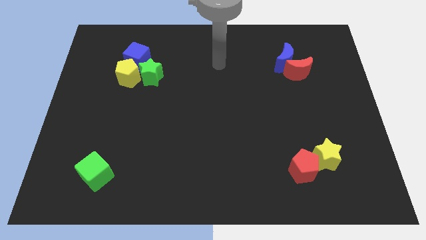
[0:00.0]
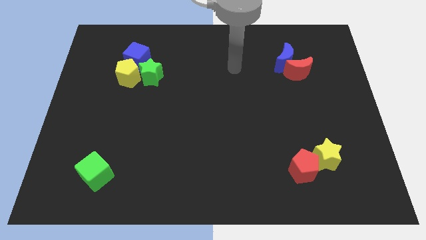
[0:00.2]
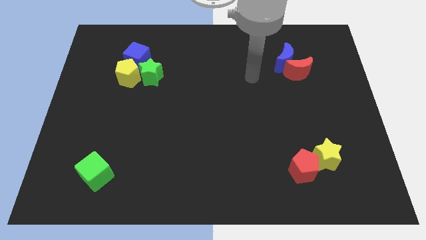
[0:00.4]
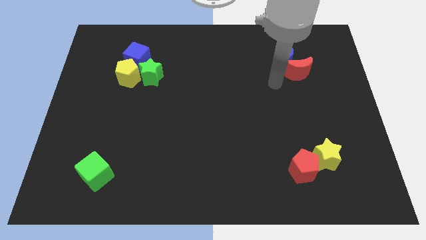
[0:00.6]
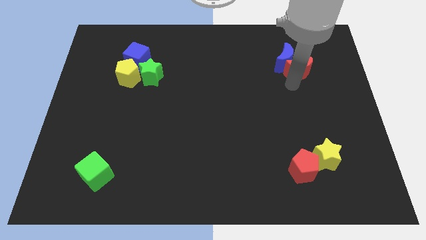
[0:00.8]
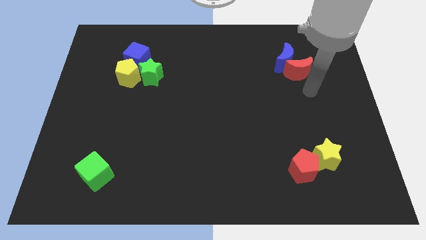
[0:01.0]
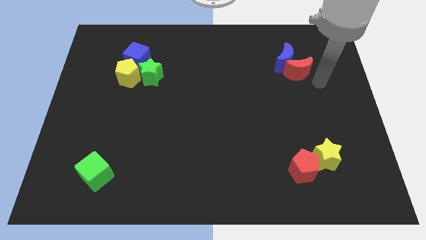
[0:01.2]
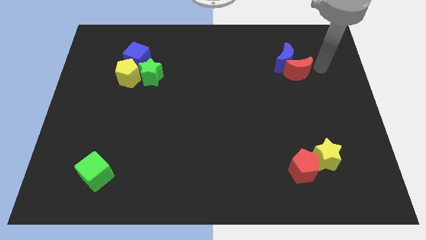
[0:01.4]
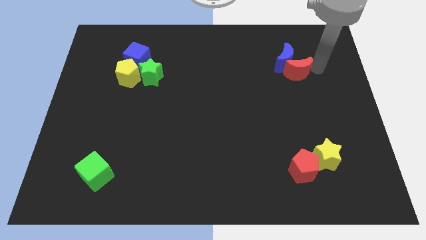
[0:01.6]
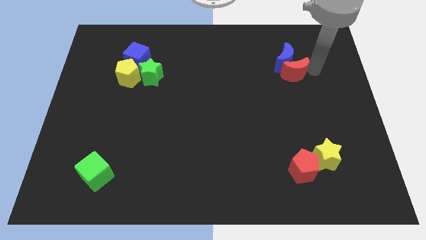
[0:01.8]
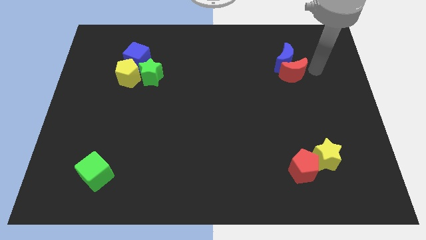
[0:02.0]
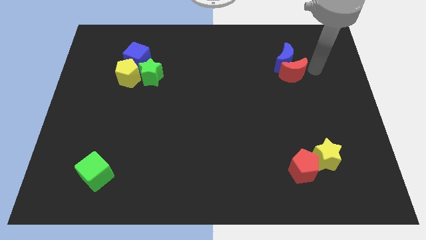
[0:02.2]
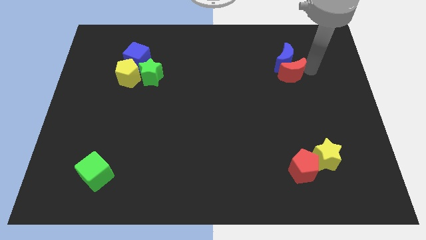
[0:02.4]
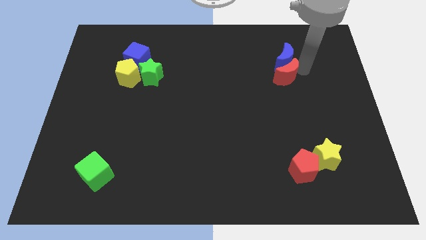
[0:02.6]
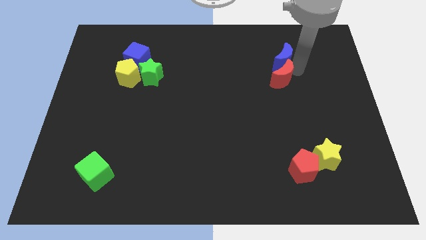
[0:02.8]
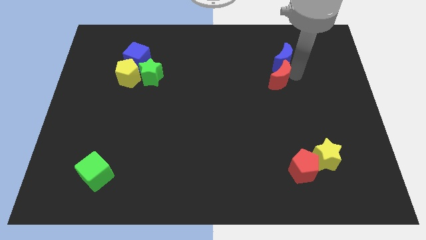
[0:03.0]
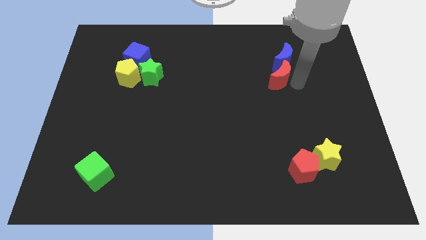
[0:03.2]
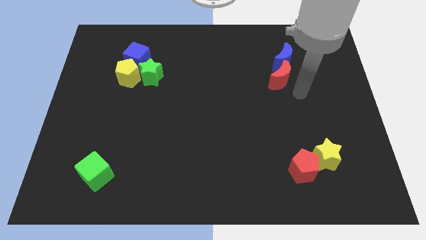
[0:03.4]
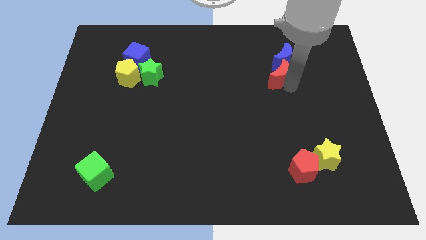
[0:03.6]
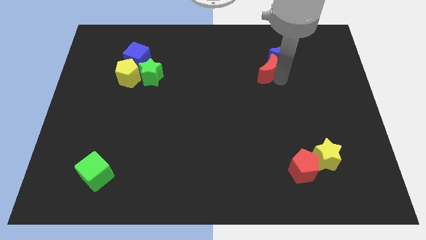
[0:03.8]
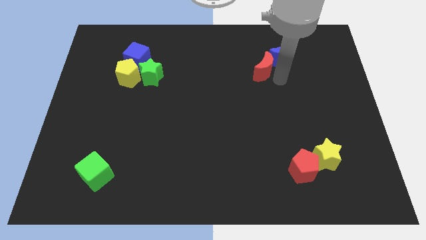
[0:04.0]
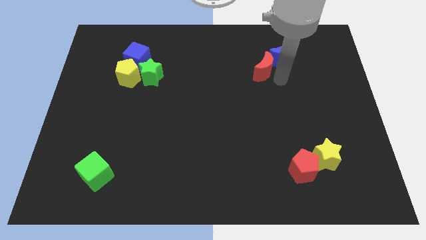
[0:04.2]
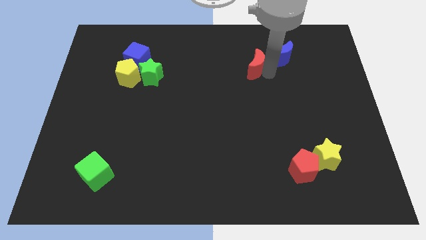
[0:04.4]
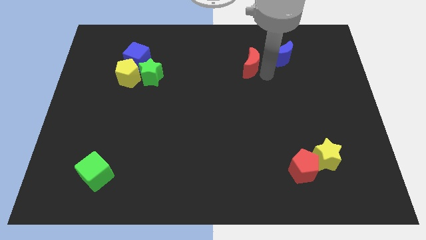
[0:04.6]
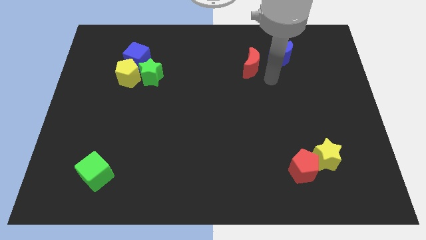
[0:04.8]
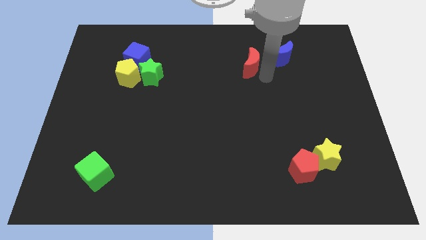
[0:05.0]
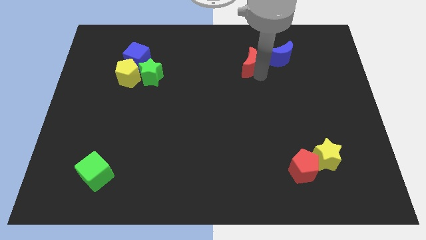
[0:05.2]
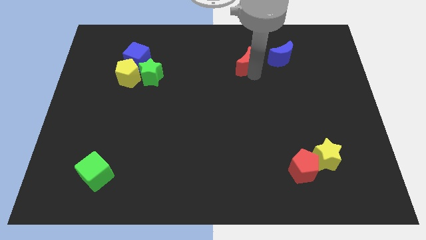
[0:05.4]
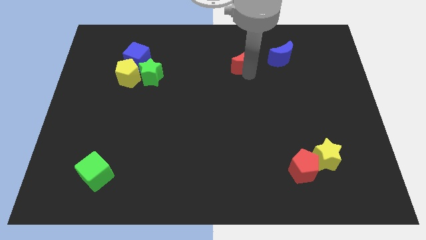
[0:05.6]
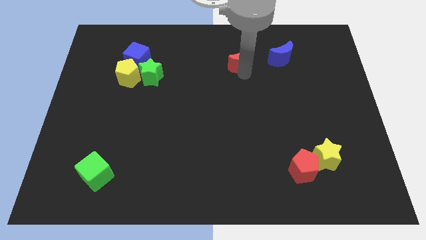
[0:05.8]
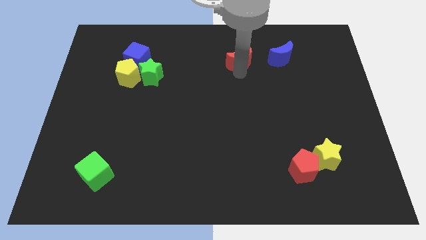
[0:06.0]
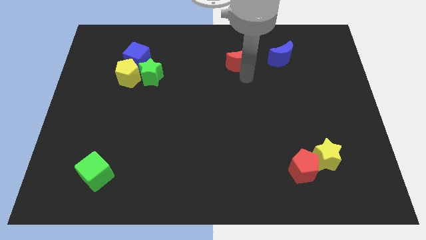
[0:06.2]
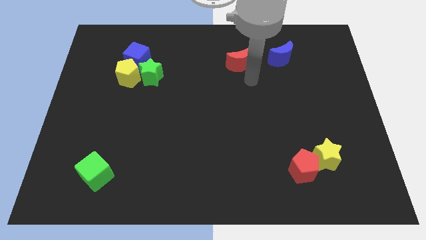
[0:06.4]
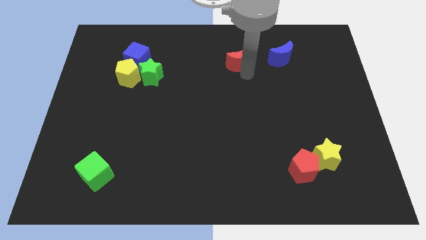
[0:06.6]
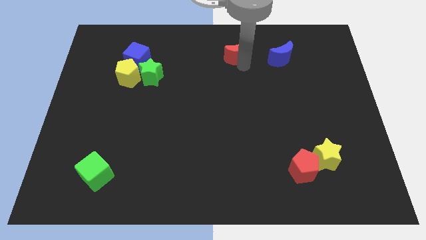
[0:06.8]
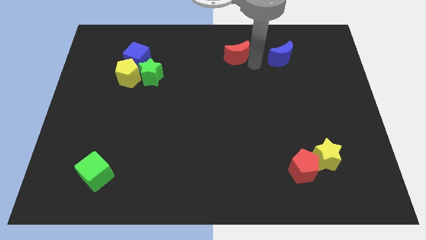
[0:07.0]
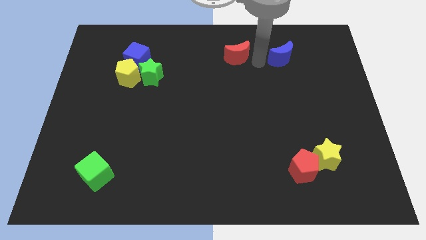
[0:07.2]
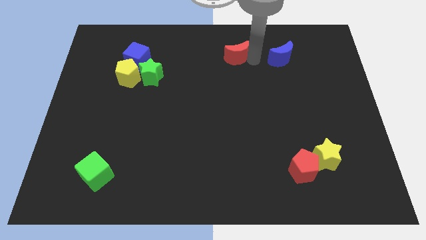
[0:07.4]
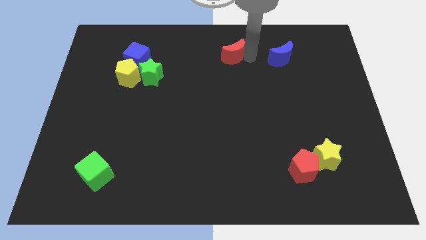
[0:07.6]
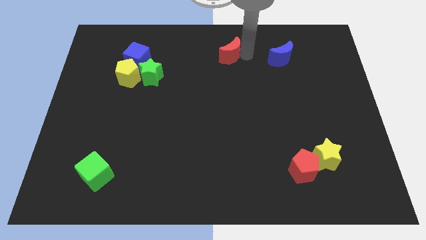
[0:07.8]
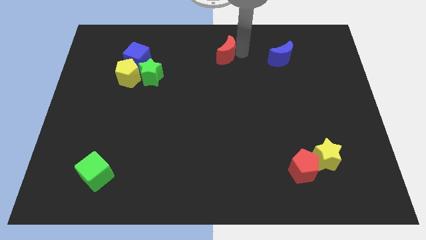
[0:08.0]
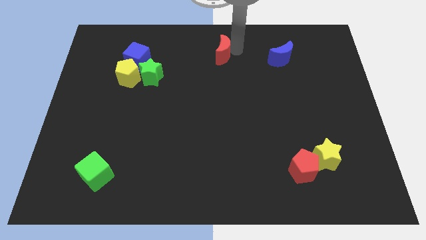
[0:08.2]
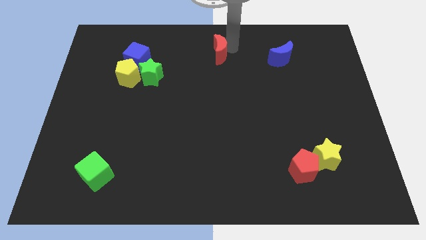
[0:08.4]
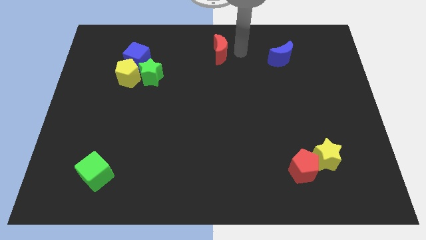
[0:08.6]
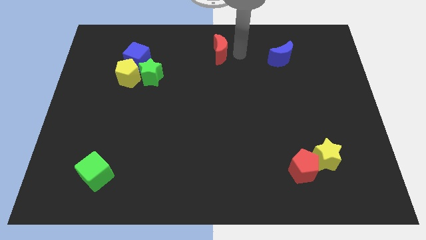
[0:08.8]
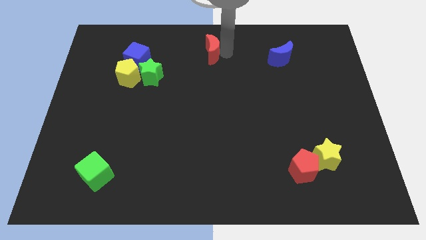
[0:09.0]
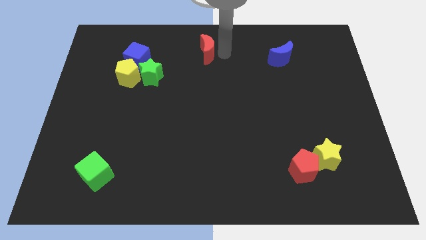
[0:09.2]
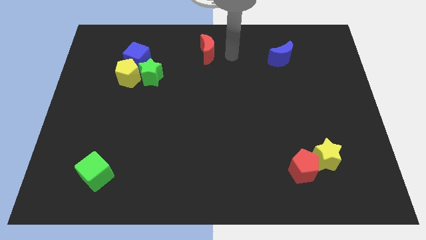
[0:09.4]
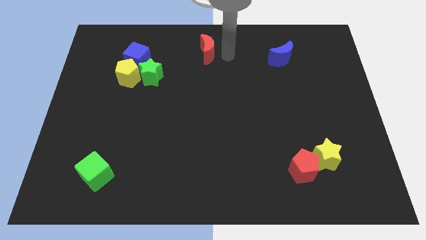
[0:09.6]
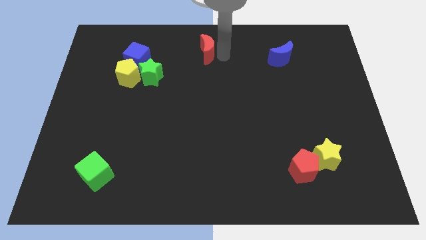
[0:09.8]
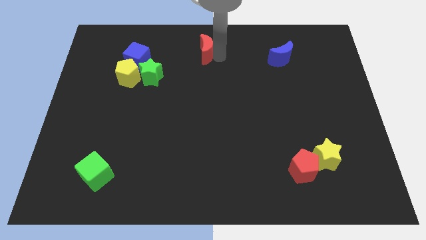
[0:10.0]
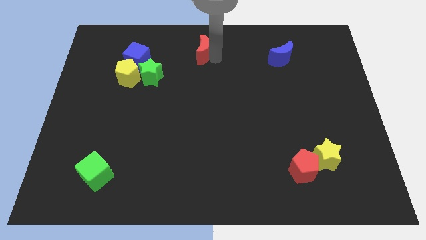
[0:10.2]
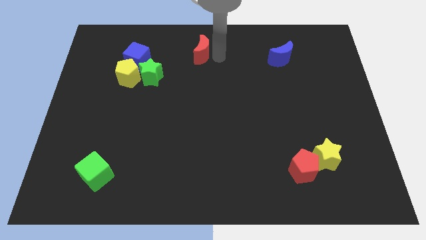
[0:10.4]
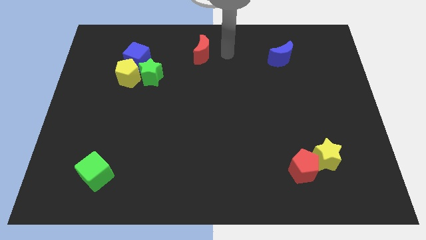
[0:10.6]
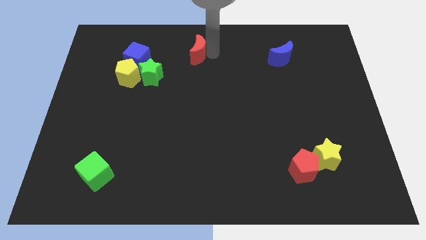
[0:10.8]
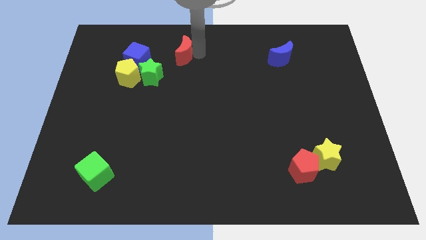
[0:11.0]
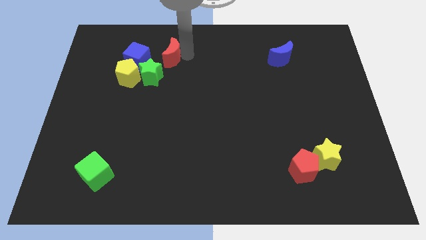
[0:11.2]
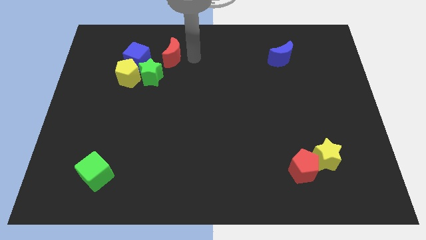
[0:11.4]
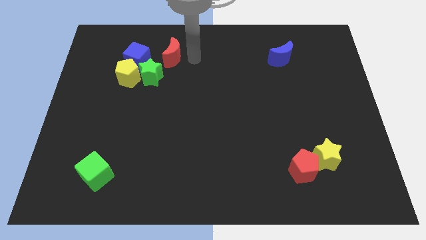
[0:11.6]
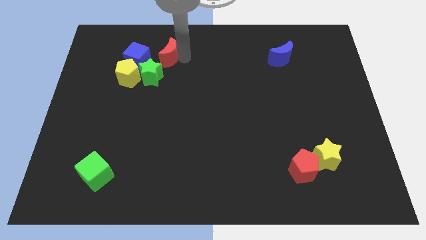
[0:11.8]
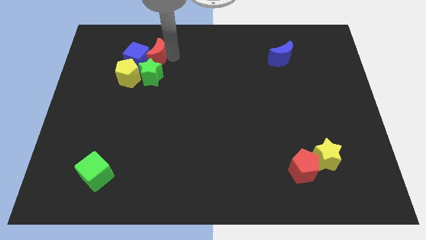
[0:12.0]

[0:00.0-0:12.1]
slide the red moon close to the blue cube
